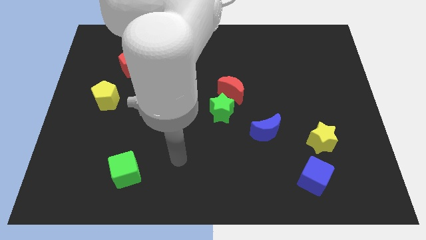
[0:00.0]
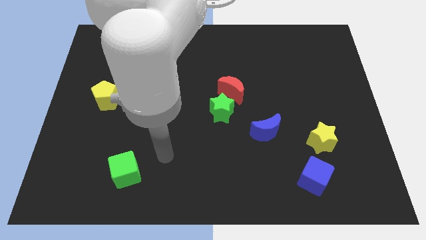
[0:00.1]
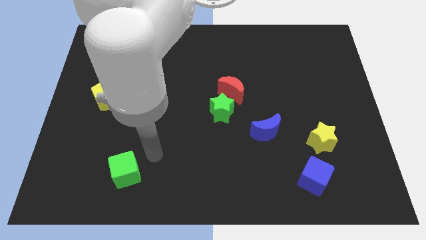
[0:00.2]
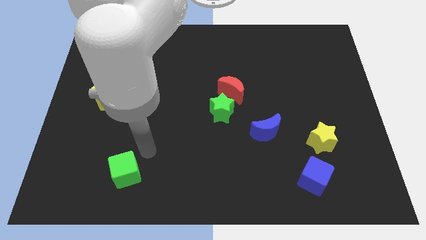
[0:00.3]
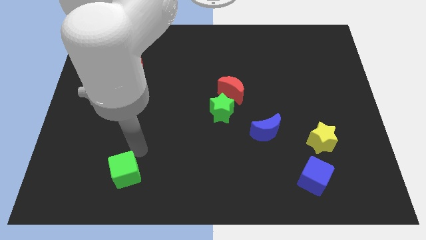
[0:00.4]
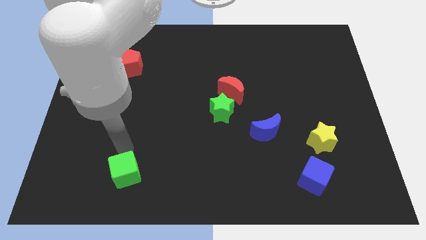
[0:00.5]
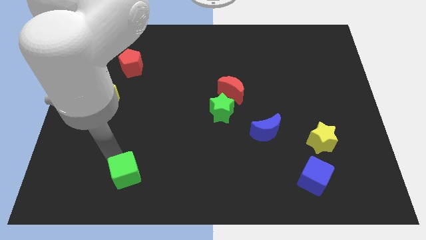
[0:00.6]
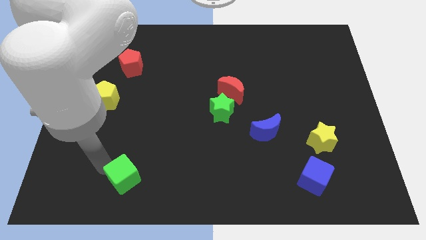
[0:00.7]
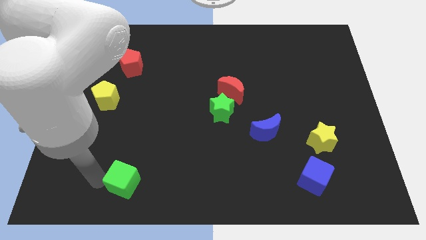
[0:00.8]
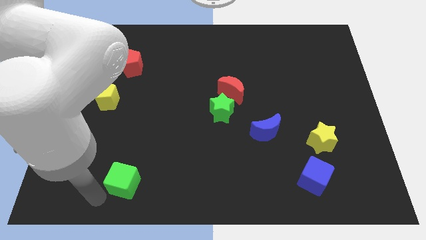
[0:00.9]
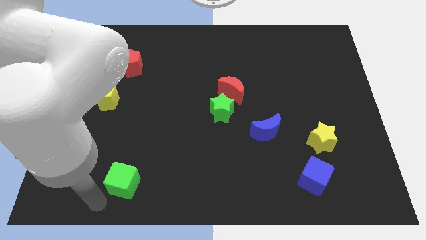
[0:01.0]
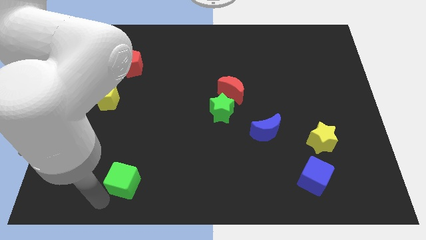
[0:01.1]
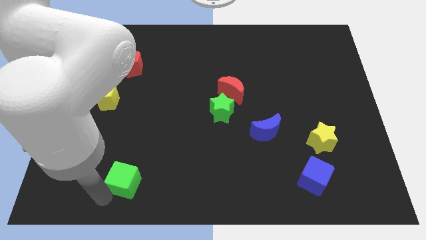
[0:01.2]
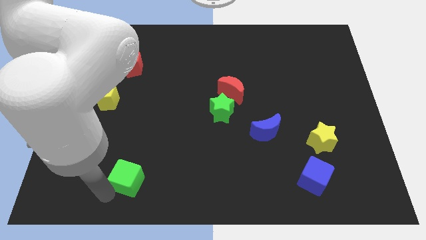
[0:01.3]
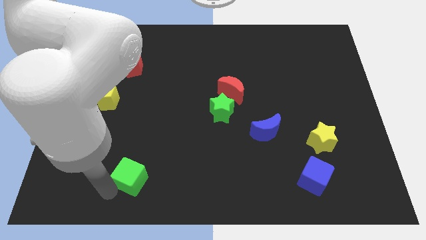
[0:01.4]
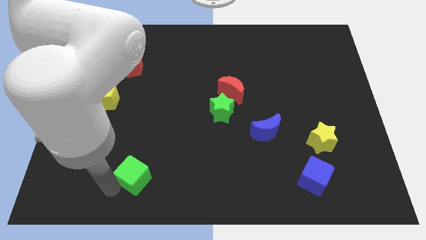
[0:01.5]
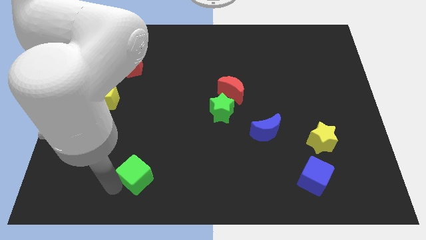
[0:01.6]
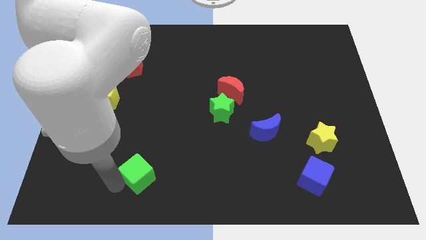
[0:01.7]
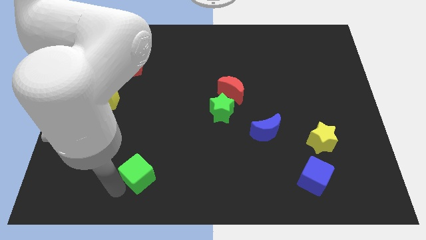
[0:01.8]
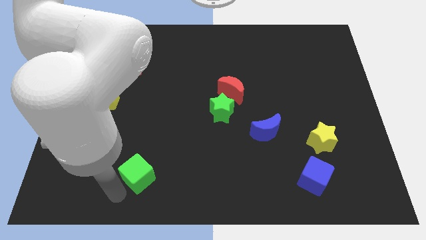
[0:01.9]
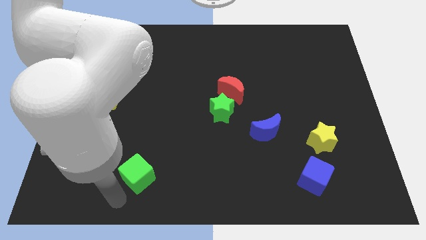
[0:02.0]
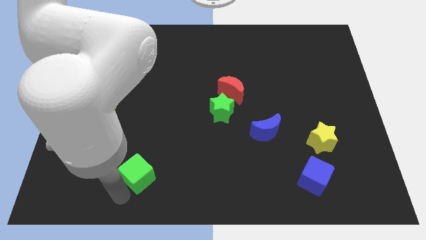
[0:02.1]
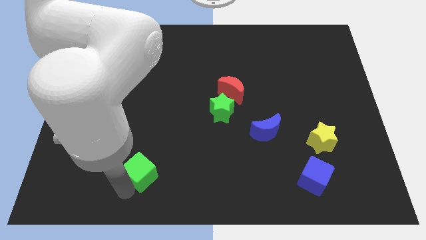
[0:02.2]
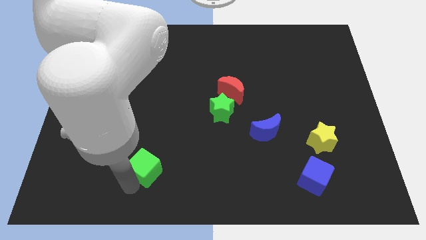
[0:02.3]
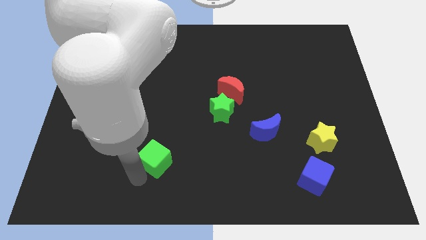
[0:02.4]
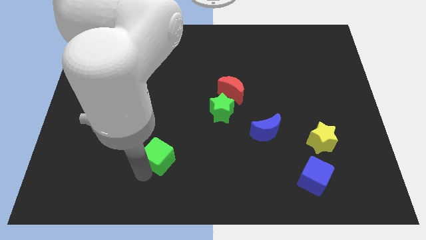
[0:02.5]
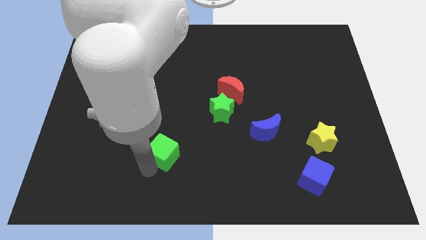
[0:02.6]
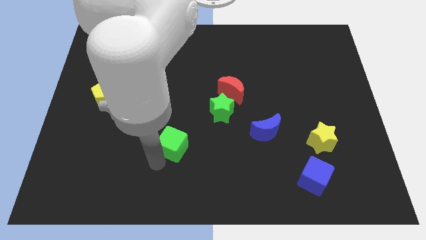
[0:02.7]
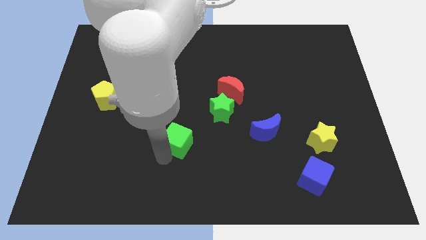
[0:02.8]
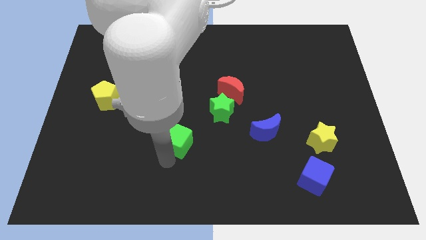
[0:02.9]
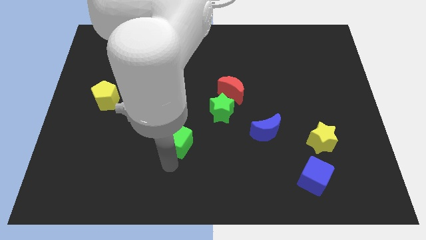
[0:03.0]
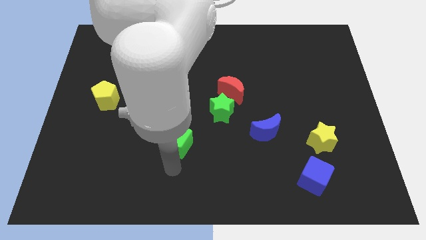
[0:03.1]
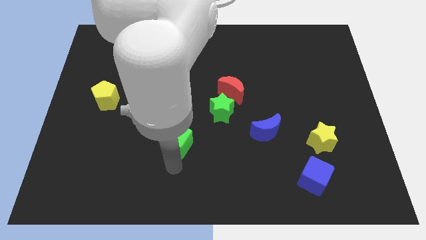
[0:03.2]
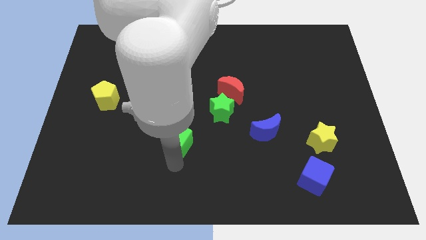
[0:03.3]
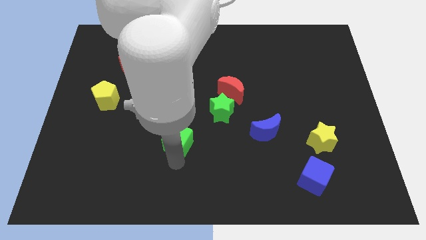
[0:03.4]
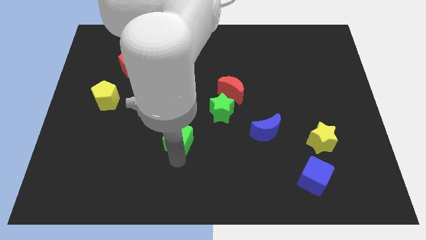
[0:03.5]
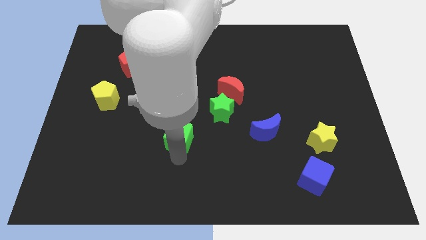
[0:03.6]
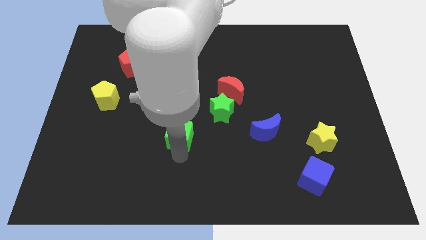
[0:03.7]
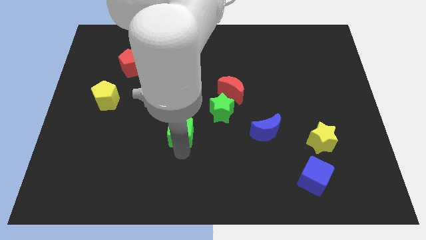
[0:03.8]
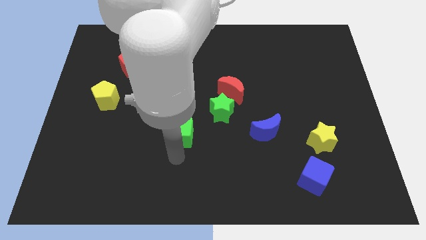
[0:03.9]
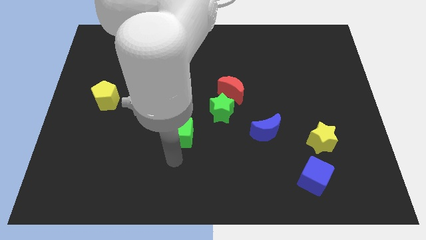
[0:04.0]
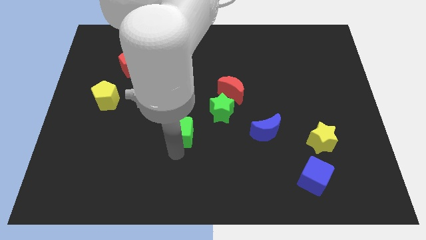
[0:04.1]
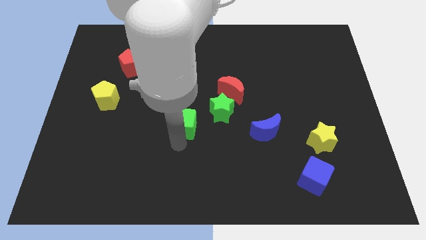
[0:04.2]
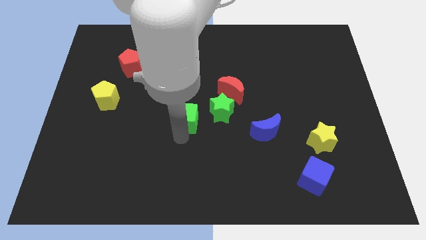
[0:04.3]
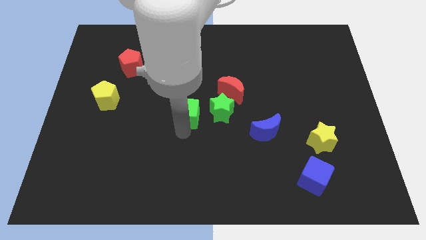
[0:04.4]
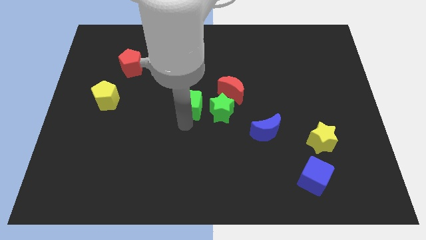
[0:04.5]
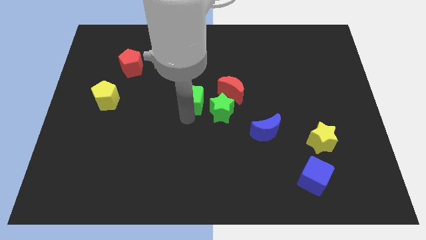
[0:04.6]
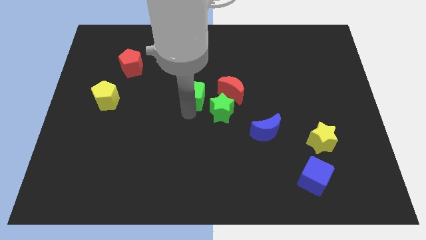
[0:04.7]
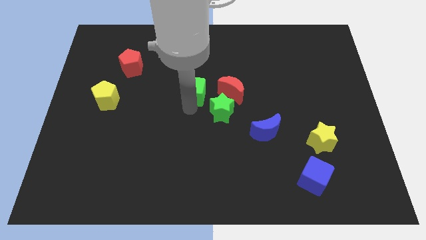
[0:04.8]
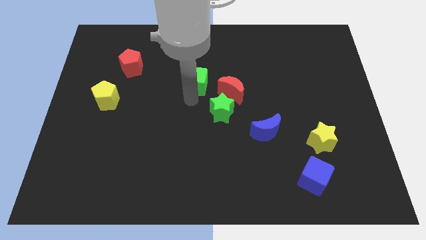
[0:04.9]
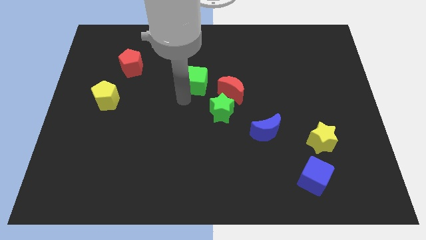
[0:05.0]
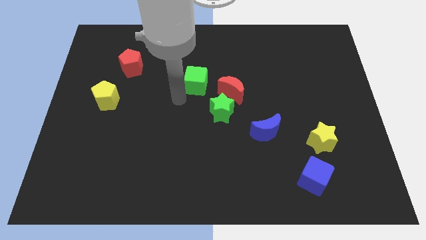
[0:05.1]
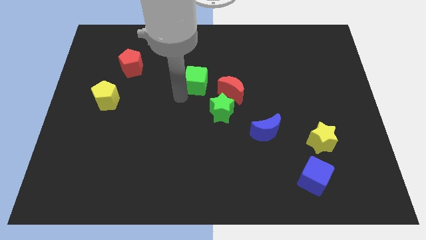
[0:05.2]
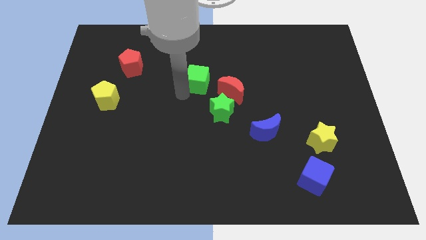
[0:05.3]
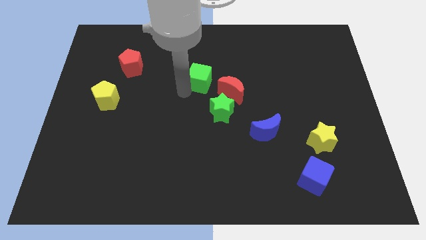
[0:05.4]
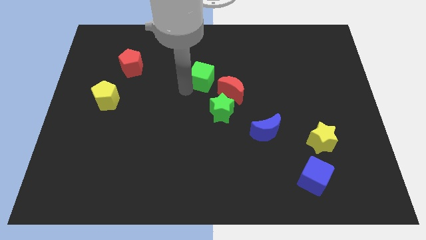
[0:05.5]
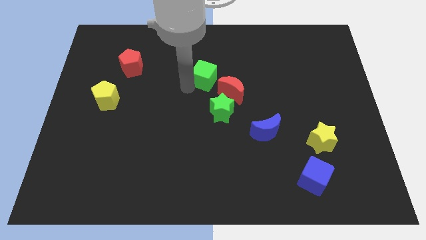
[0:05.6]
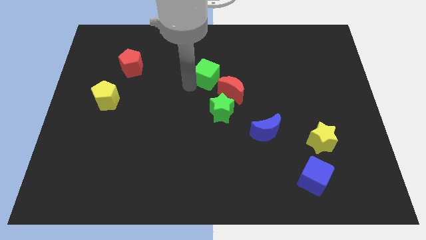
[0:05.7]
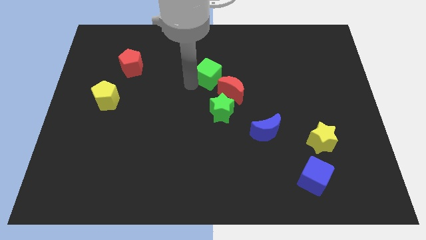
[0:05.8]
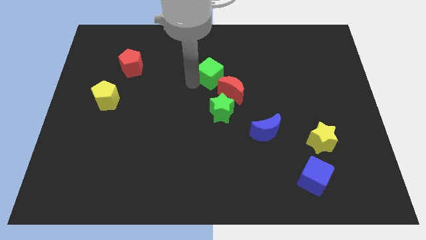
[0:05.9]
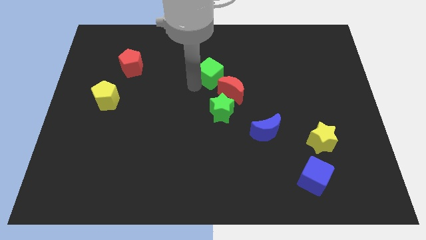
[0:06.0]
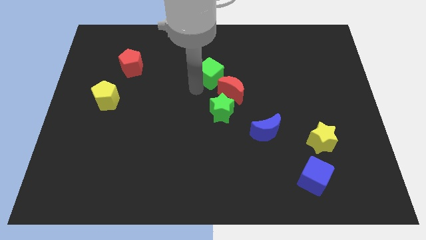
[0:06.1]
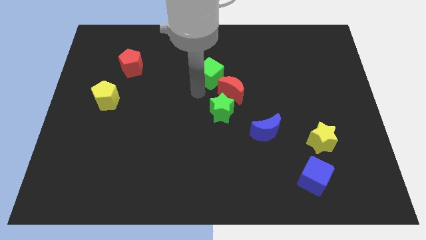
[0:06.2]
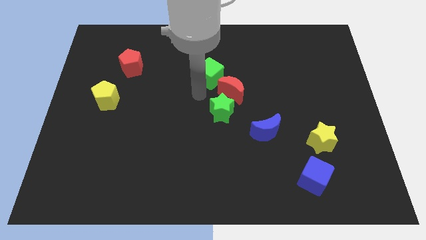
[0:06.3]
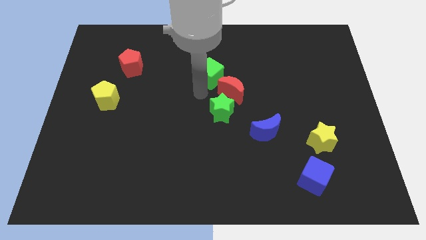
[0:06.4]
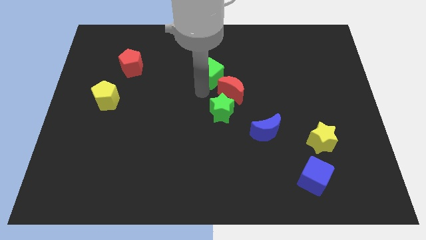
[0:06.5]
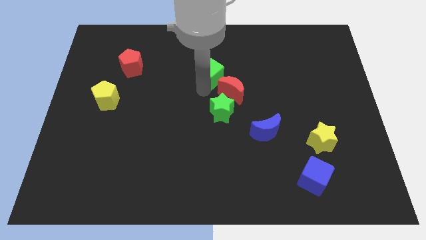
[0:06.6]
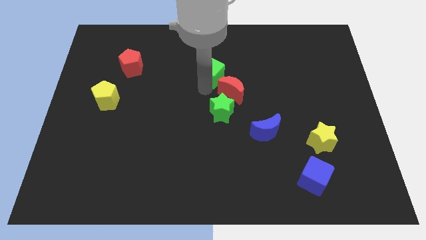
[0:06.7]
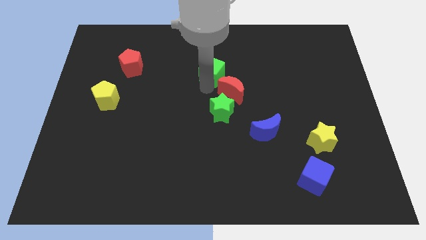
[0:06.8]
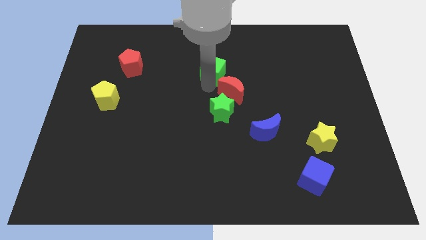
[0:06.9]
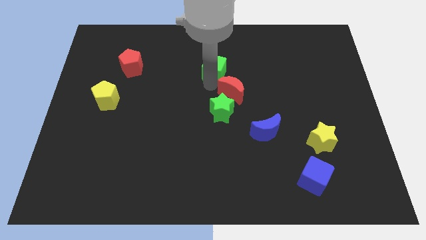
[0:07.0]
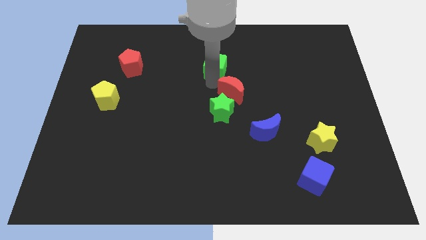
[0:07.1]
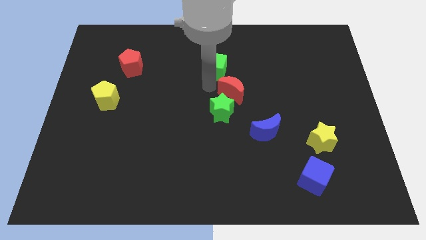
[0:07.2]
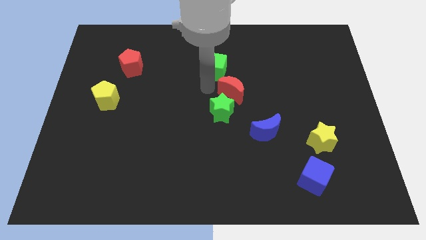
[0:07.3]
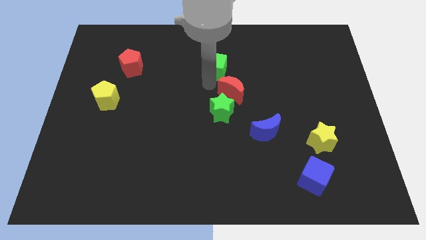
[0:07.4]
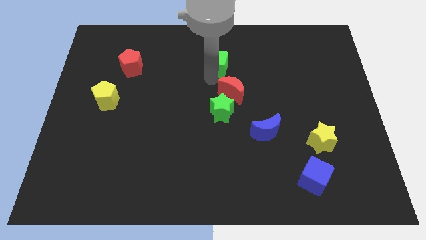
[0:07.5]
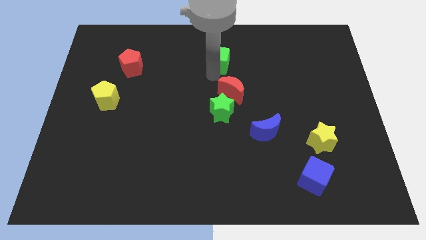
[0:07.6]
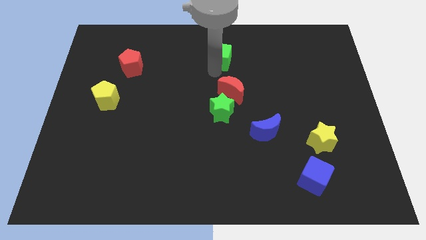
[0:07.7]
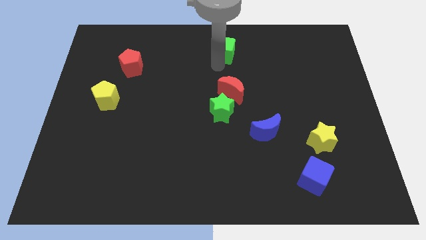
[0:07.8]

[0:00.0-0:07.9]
slide the green cube to the top side
